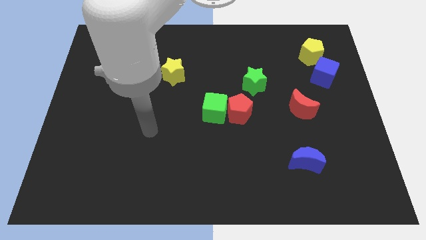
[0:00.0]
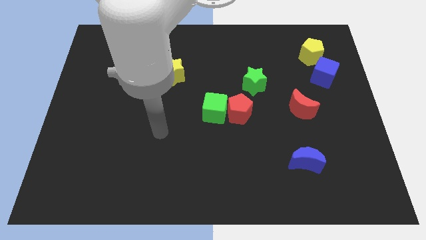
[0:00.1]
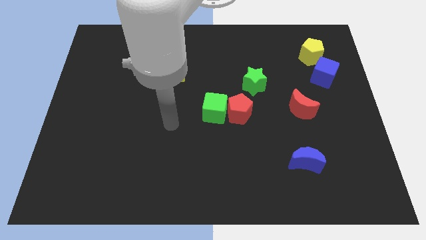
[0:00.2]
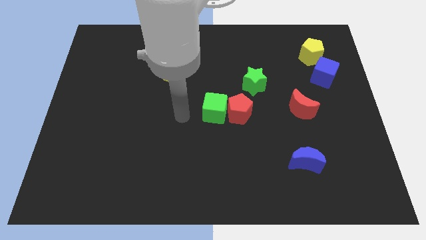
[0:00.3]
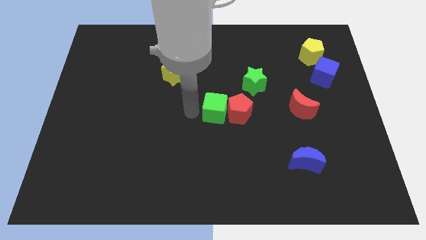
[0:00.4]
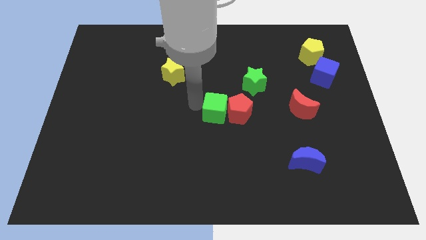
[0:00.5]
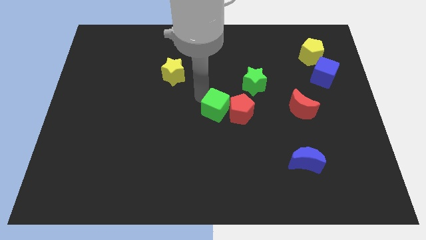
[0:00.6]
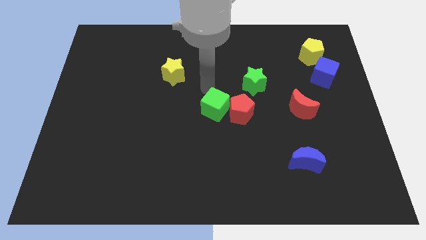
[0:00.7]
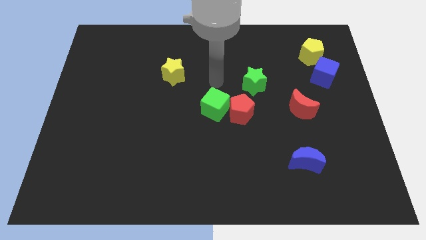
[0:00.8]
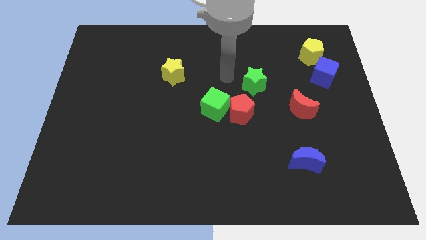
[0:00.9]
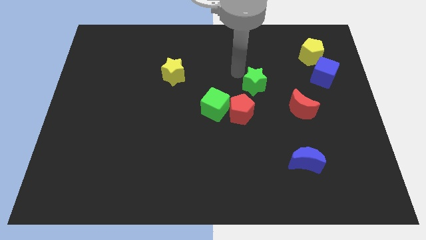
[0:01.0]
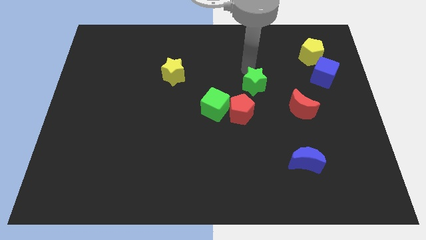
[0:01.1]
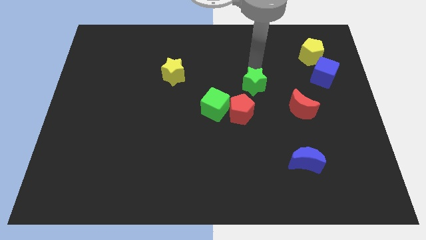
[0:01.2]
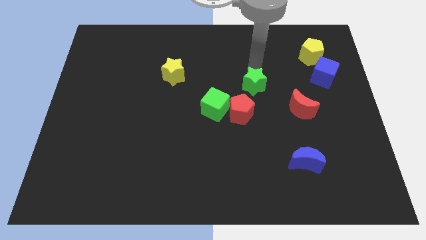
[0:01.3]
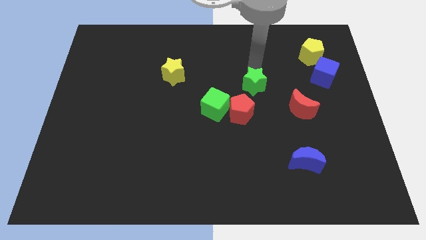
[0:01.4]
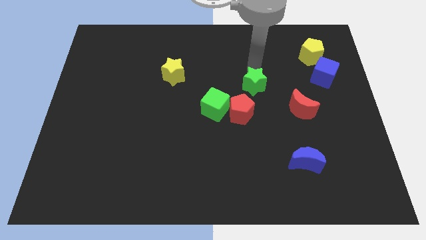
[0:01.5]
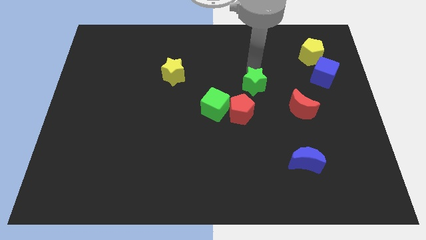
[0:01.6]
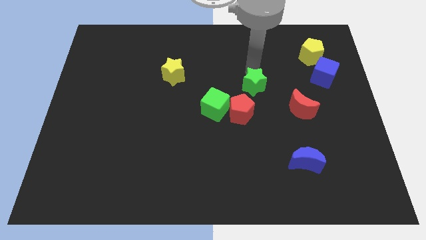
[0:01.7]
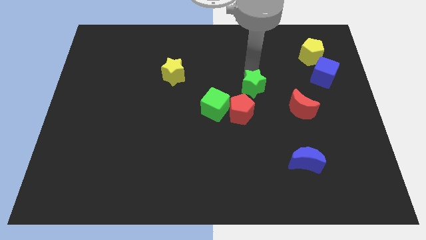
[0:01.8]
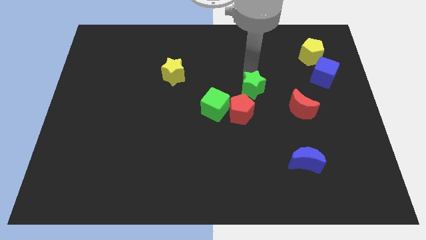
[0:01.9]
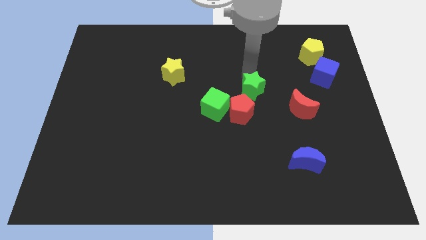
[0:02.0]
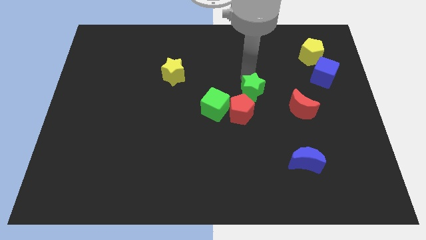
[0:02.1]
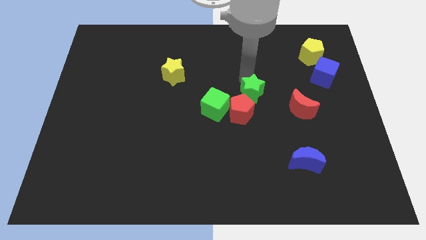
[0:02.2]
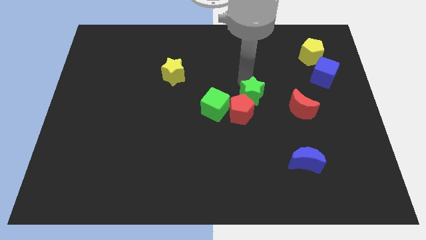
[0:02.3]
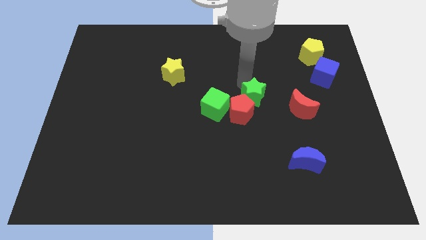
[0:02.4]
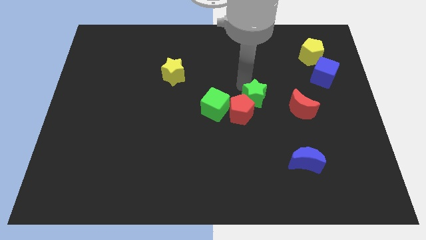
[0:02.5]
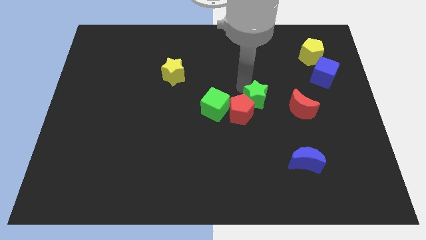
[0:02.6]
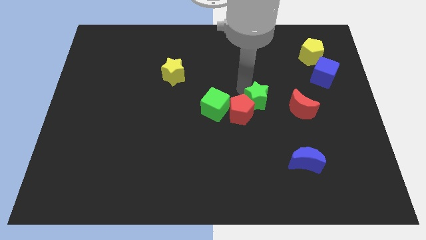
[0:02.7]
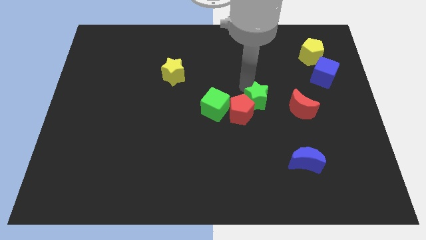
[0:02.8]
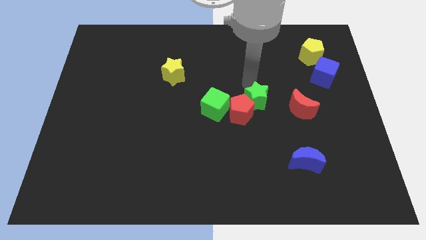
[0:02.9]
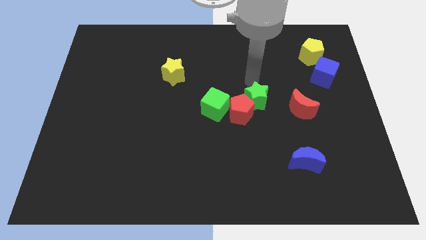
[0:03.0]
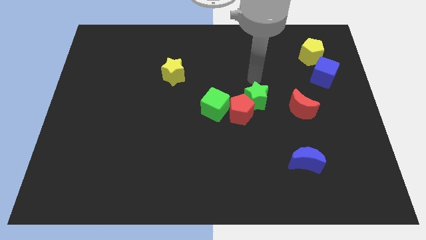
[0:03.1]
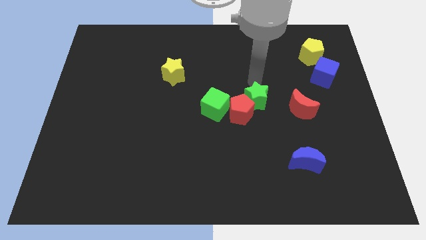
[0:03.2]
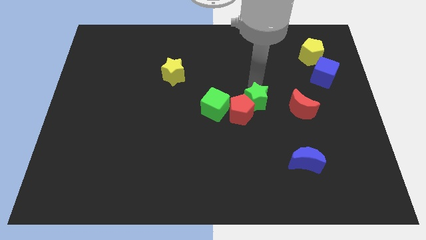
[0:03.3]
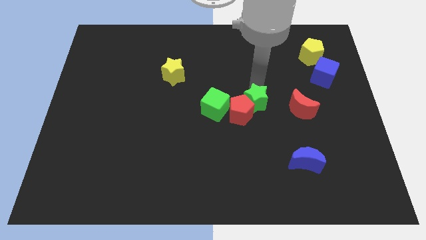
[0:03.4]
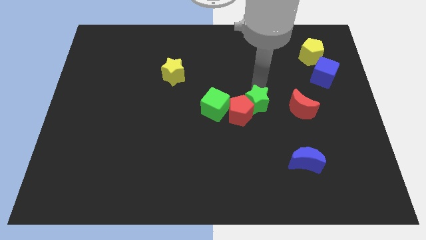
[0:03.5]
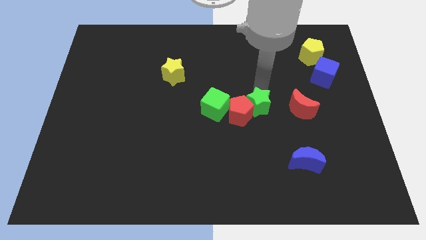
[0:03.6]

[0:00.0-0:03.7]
push the green star down a bit

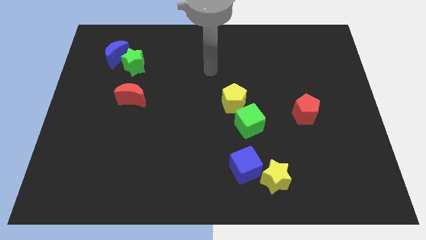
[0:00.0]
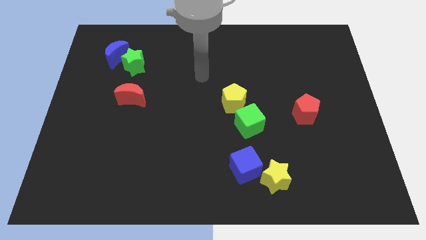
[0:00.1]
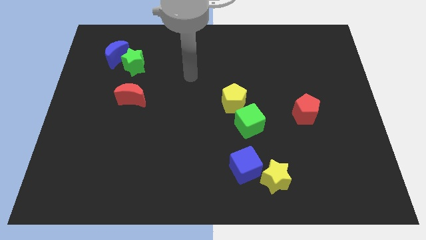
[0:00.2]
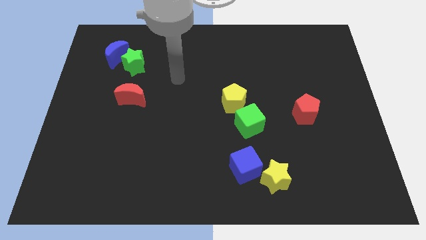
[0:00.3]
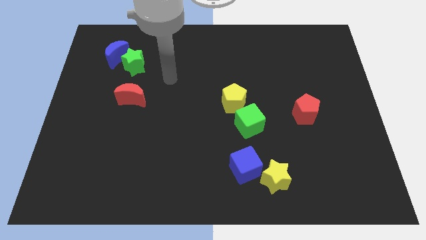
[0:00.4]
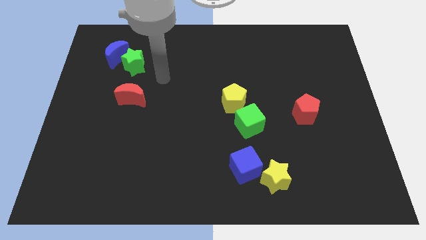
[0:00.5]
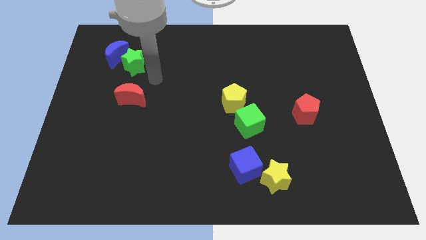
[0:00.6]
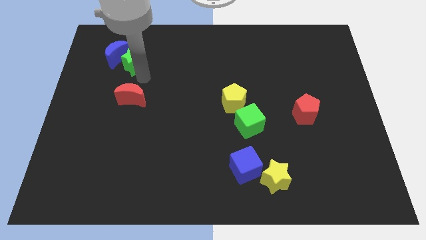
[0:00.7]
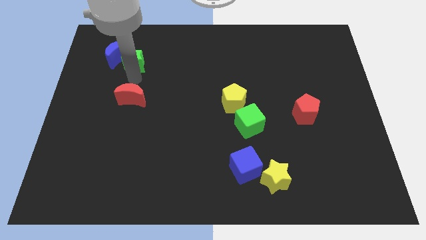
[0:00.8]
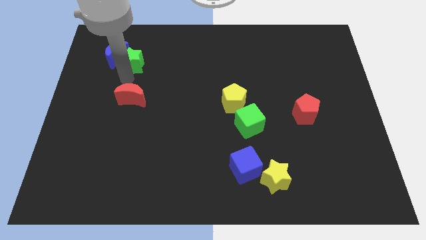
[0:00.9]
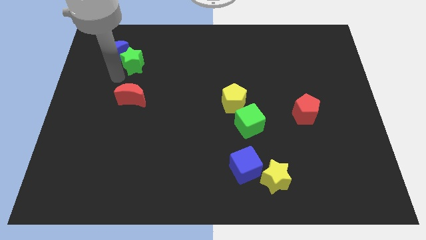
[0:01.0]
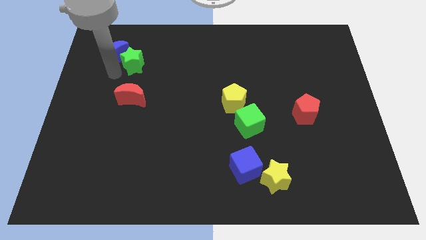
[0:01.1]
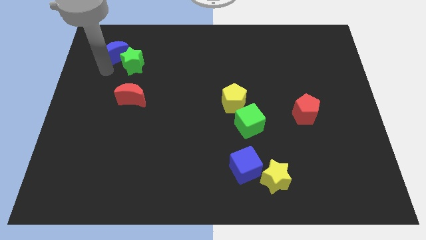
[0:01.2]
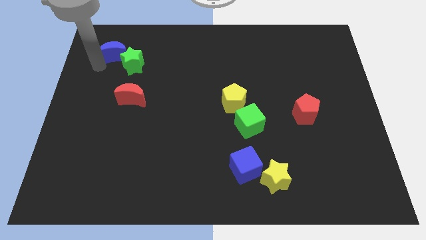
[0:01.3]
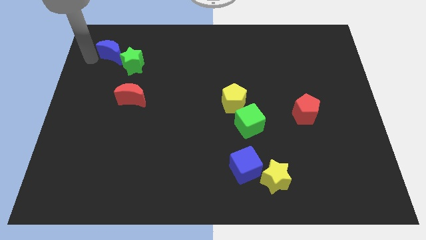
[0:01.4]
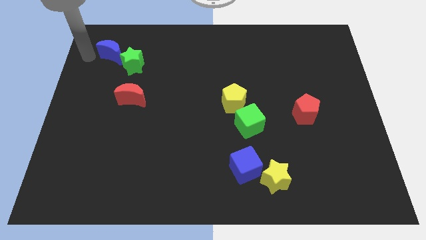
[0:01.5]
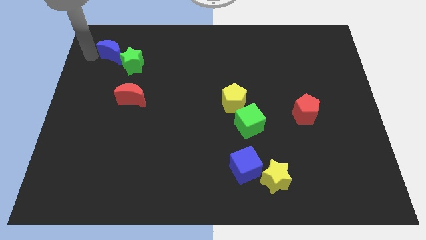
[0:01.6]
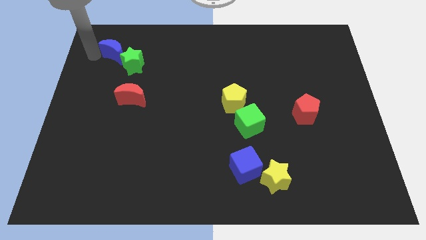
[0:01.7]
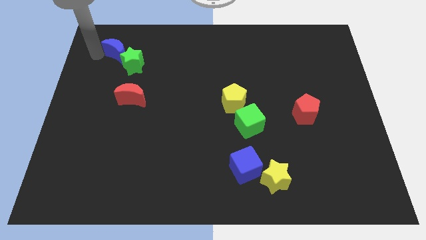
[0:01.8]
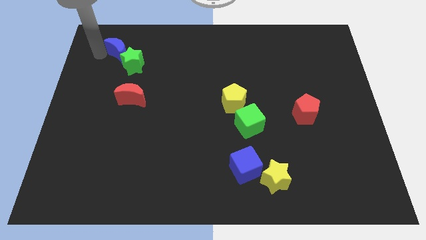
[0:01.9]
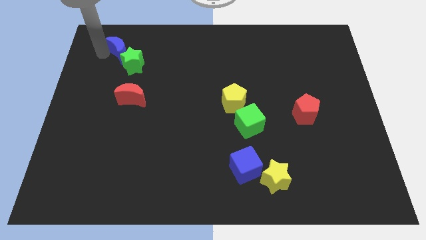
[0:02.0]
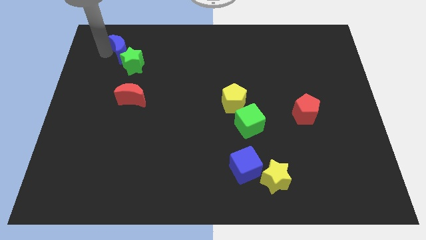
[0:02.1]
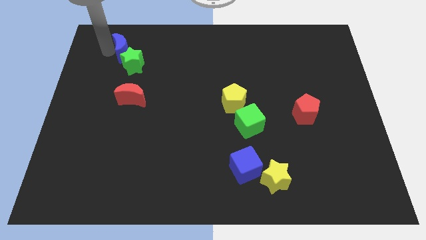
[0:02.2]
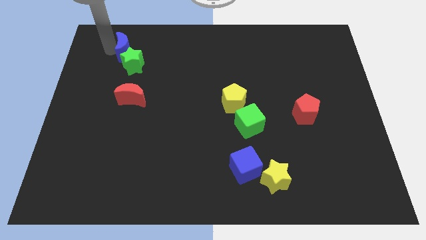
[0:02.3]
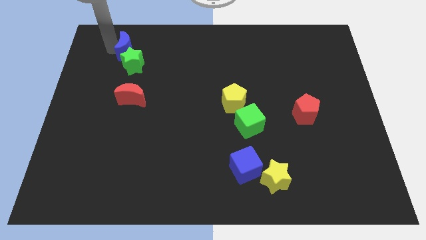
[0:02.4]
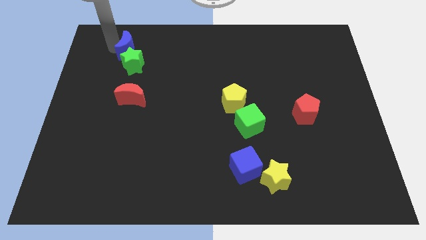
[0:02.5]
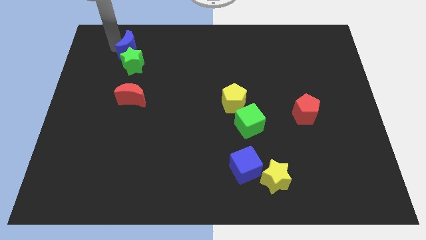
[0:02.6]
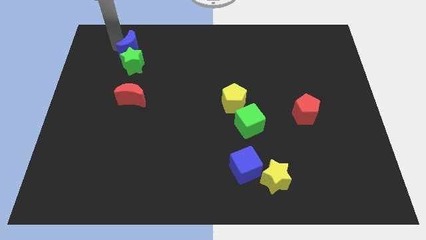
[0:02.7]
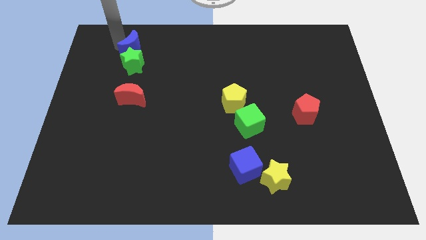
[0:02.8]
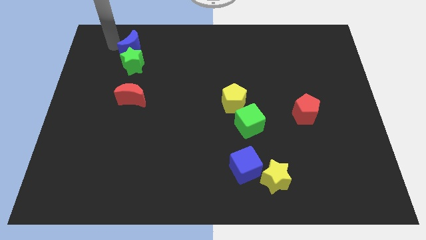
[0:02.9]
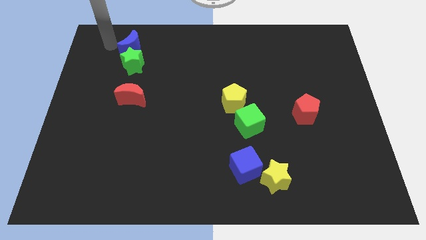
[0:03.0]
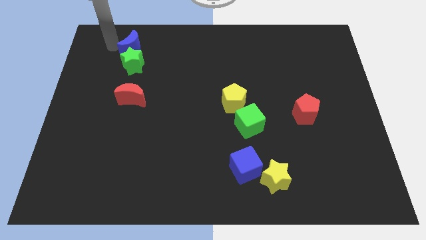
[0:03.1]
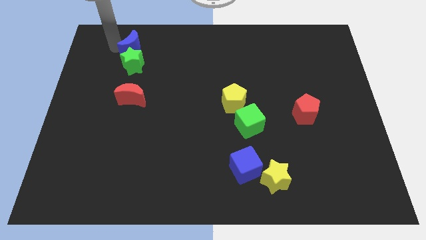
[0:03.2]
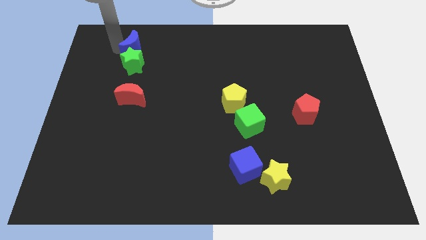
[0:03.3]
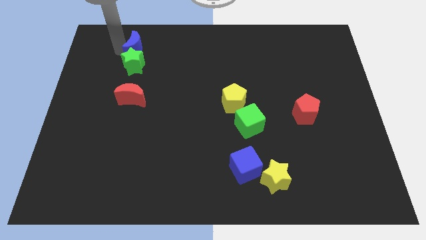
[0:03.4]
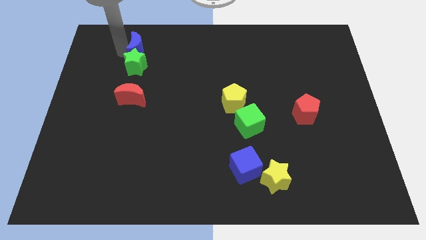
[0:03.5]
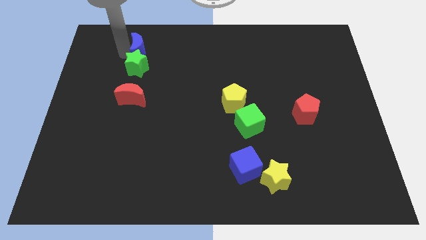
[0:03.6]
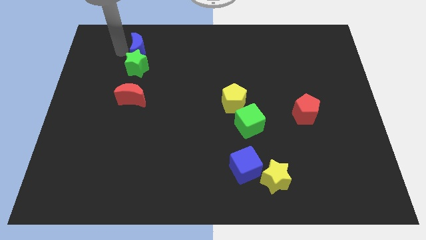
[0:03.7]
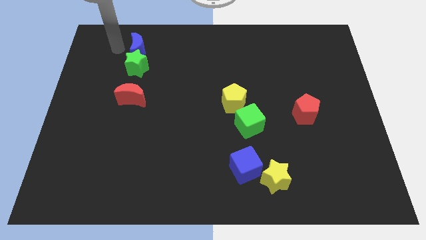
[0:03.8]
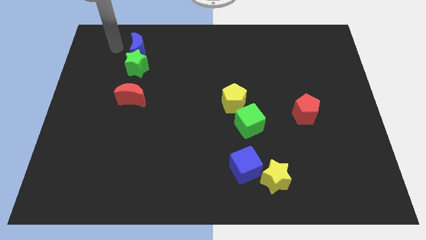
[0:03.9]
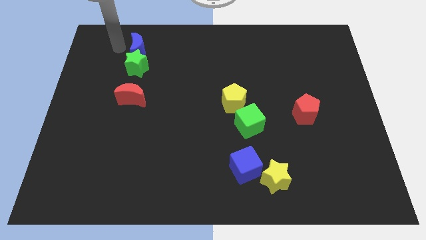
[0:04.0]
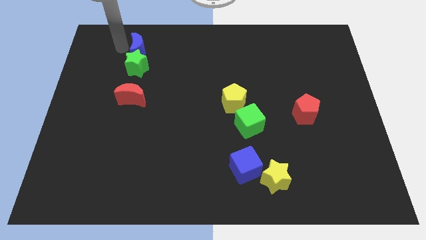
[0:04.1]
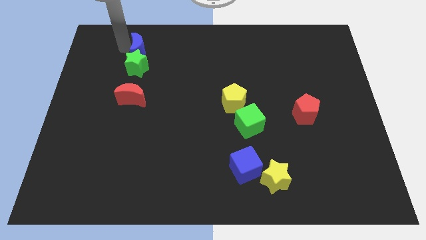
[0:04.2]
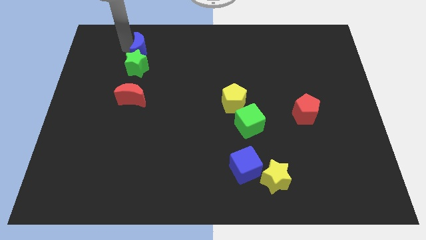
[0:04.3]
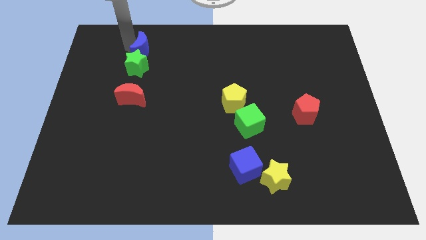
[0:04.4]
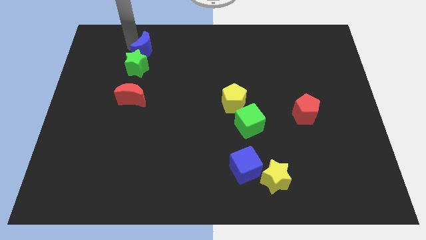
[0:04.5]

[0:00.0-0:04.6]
slightly push the blue moon to the right
